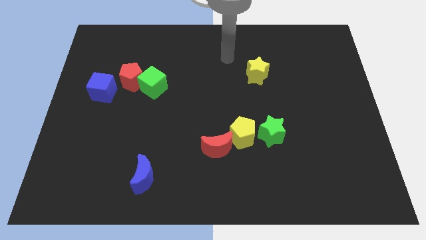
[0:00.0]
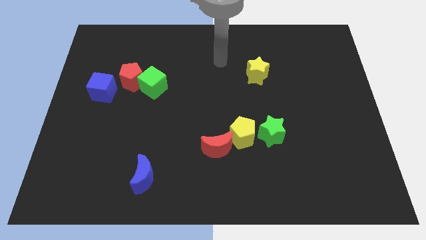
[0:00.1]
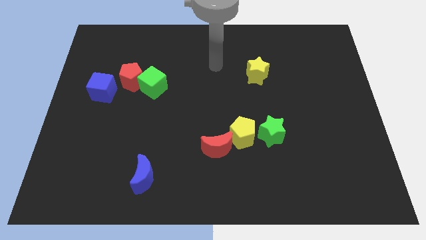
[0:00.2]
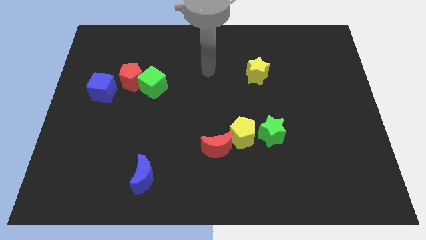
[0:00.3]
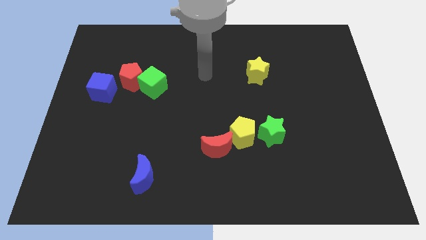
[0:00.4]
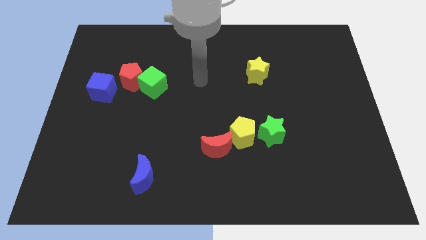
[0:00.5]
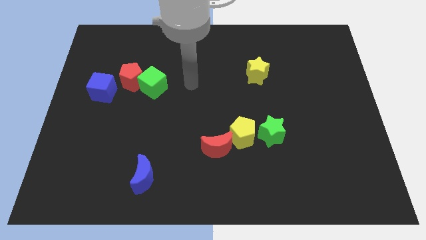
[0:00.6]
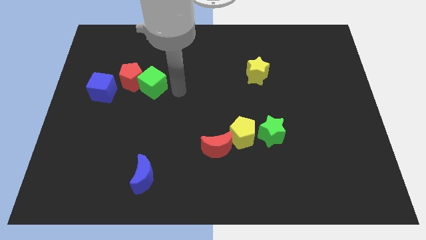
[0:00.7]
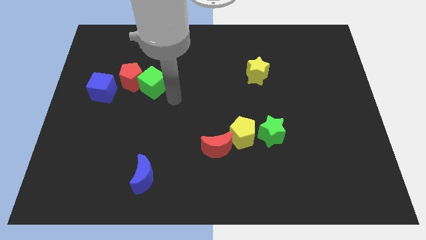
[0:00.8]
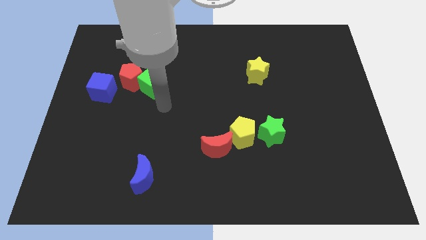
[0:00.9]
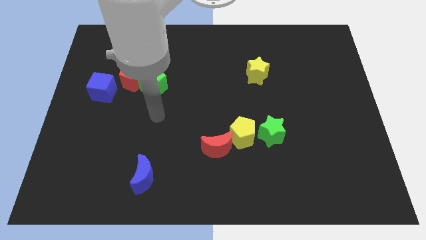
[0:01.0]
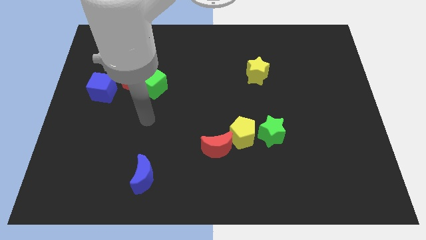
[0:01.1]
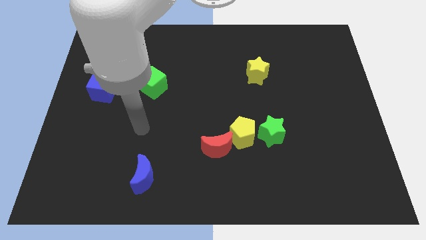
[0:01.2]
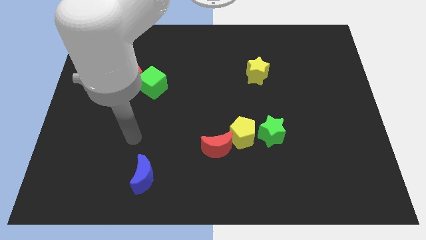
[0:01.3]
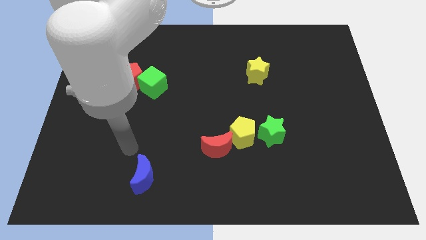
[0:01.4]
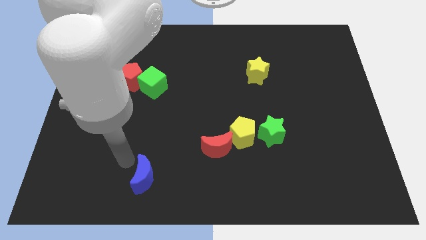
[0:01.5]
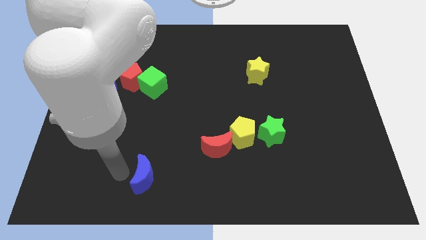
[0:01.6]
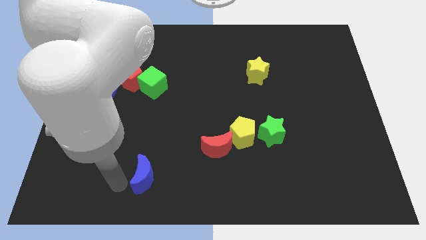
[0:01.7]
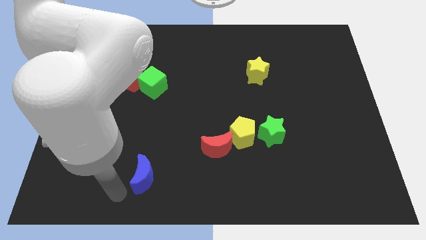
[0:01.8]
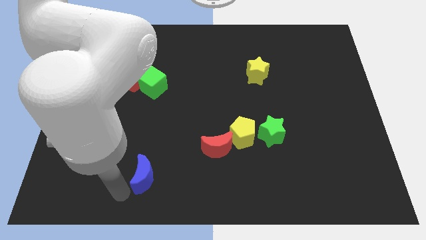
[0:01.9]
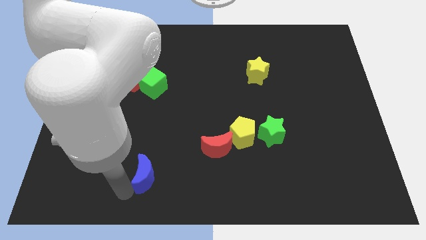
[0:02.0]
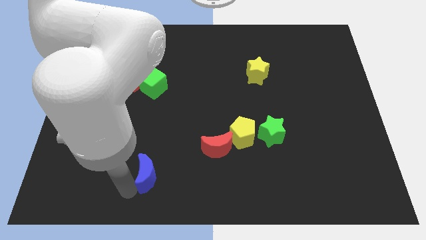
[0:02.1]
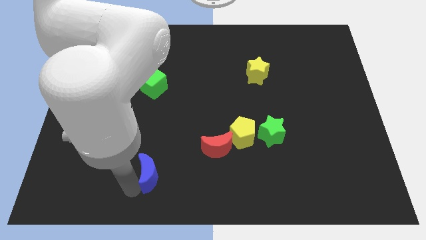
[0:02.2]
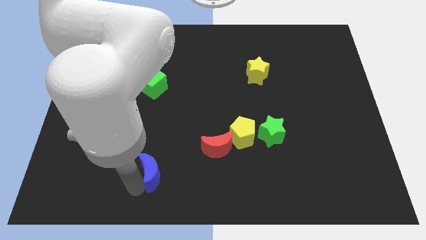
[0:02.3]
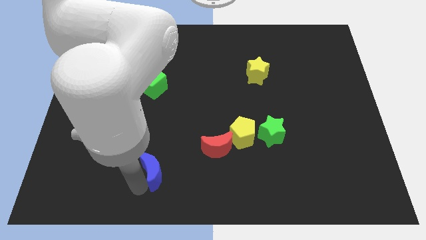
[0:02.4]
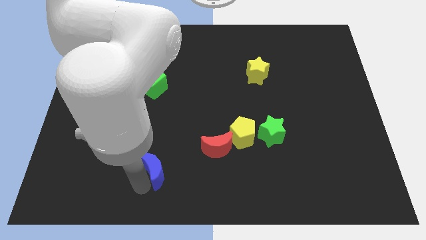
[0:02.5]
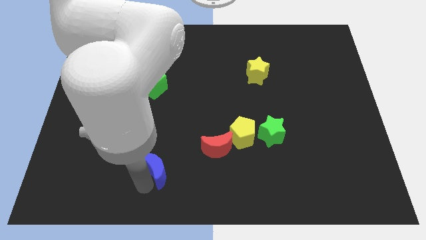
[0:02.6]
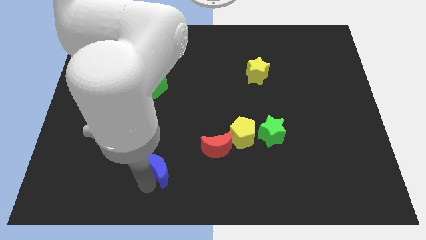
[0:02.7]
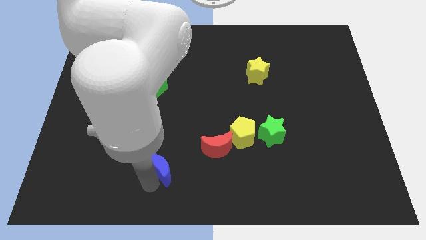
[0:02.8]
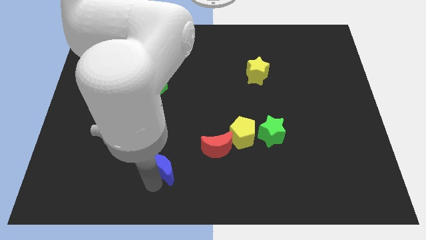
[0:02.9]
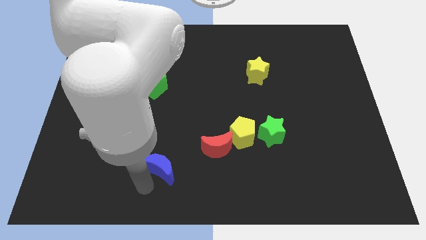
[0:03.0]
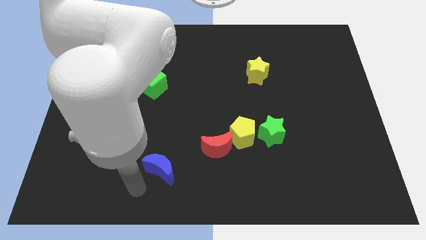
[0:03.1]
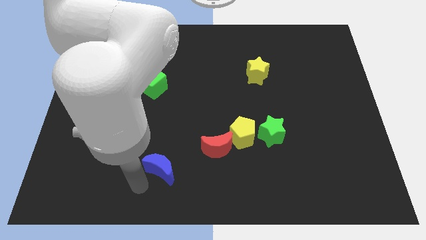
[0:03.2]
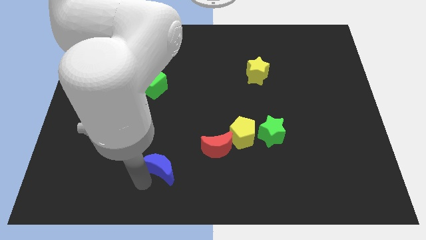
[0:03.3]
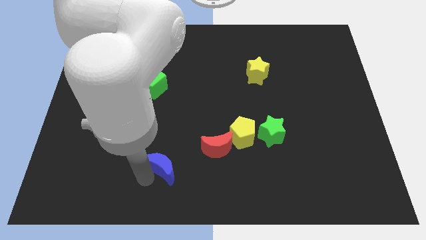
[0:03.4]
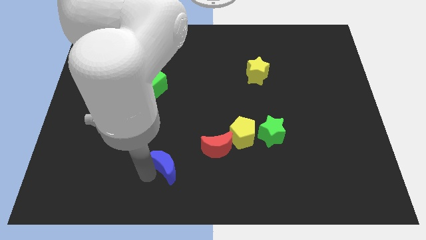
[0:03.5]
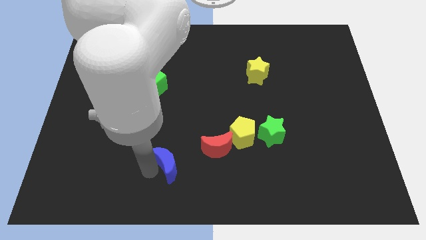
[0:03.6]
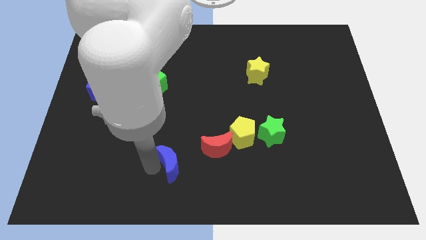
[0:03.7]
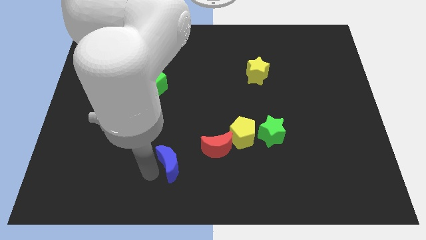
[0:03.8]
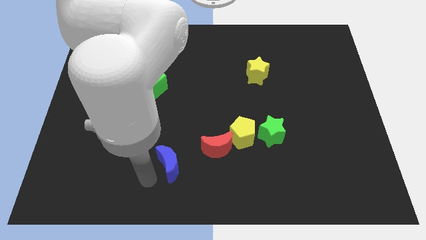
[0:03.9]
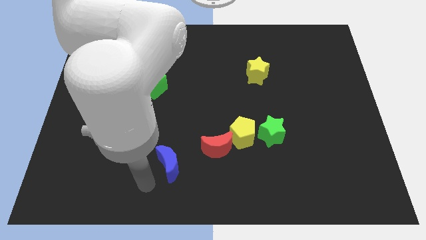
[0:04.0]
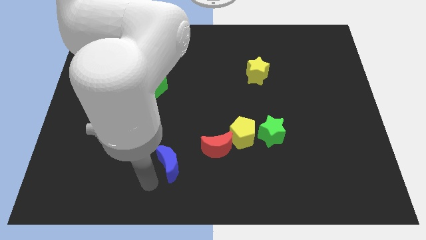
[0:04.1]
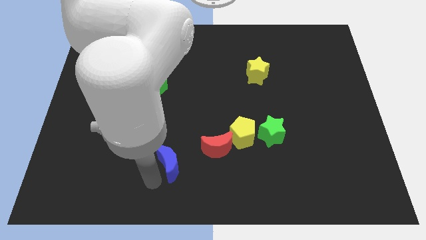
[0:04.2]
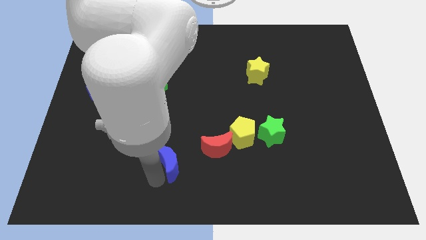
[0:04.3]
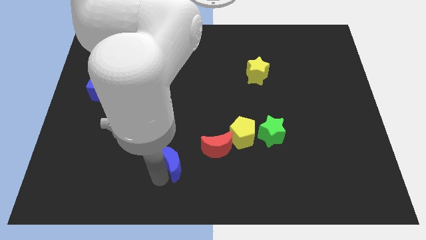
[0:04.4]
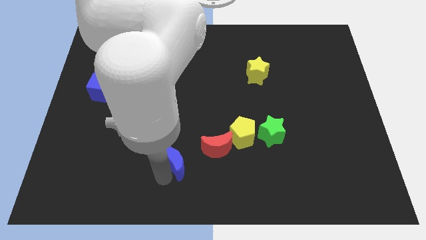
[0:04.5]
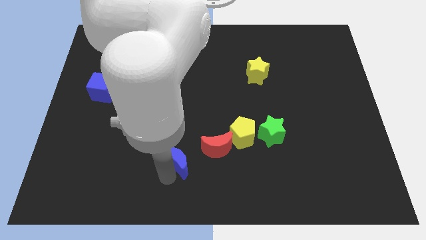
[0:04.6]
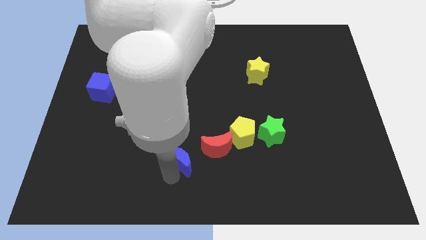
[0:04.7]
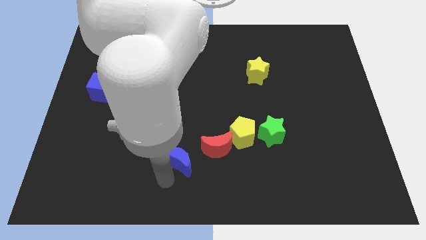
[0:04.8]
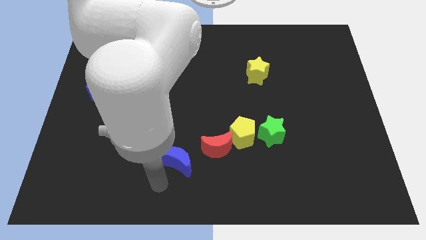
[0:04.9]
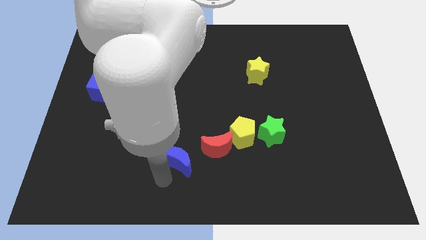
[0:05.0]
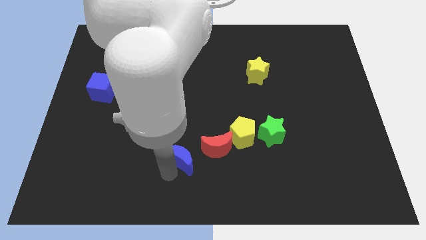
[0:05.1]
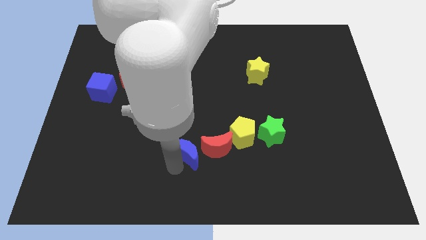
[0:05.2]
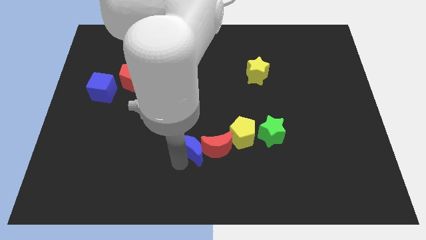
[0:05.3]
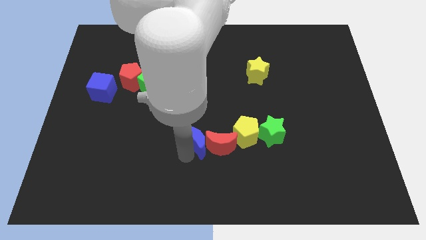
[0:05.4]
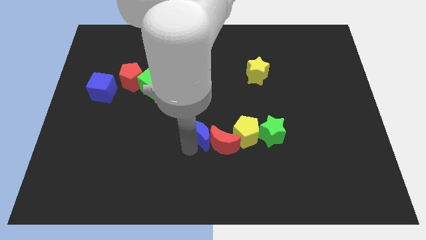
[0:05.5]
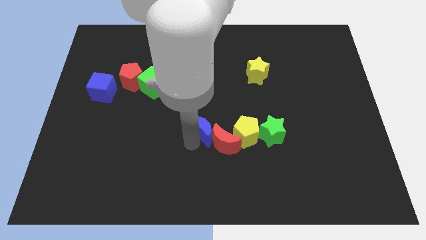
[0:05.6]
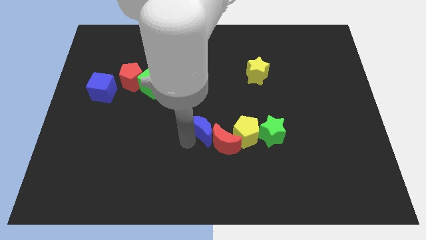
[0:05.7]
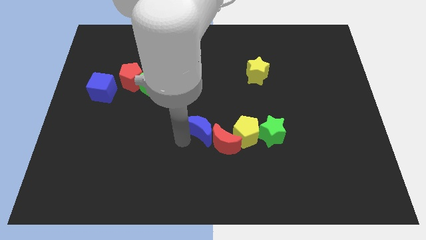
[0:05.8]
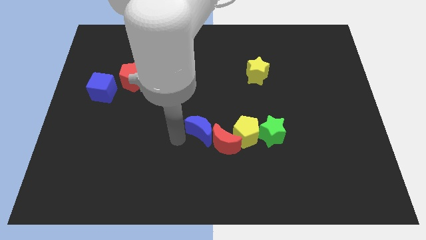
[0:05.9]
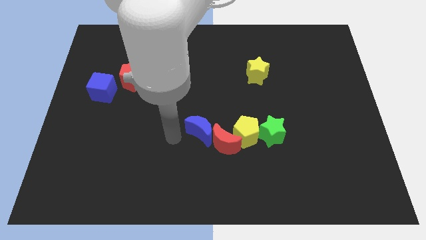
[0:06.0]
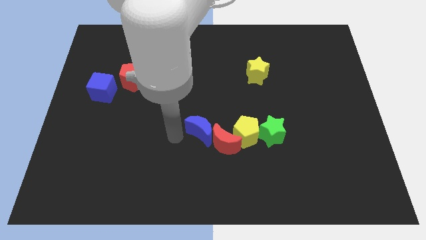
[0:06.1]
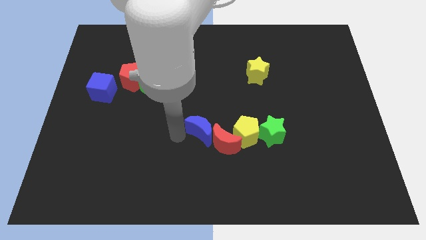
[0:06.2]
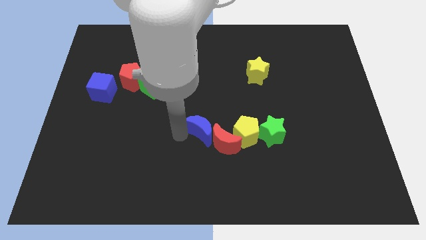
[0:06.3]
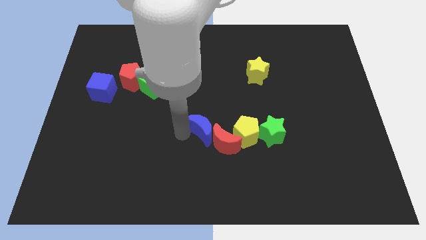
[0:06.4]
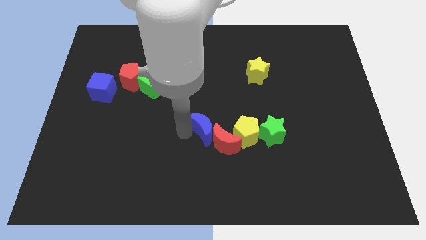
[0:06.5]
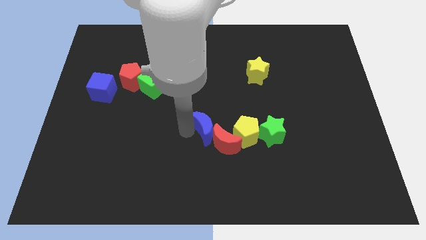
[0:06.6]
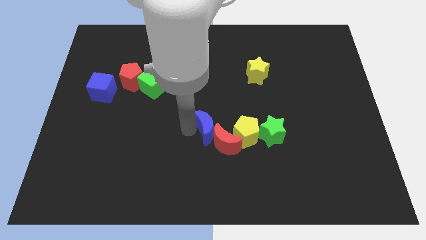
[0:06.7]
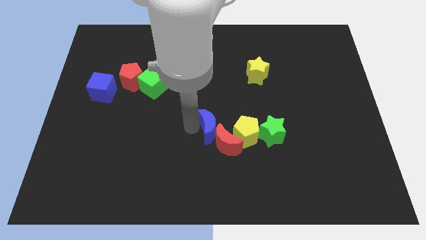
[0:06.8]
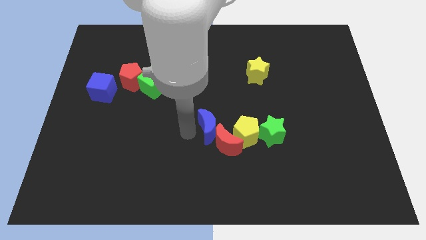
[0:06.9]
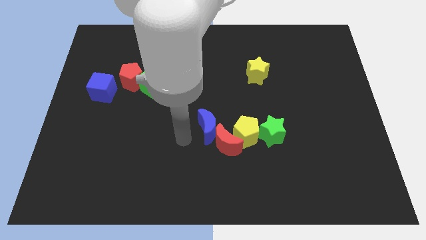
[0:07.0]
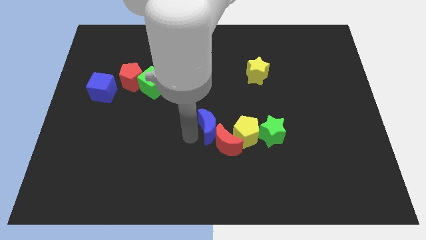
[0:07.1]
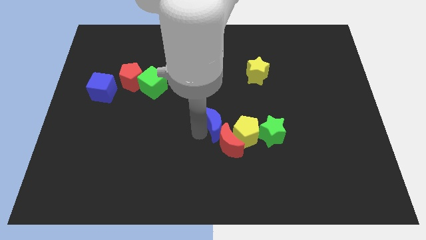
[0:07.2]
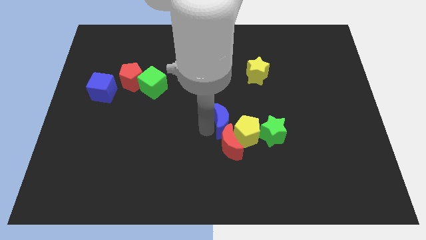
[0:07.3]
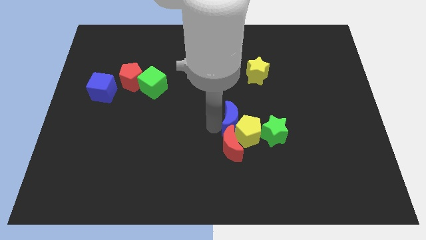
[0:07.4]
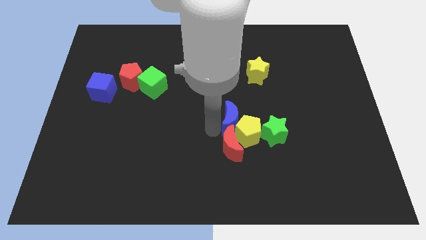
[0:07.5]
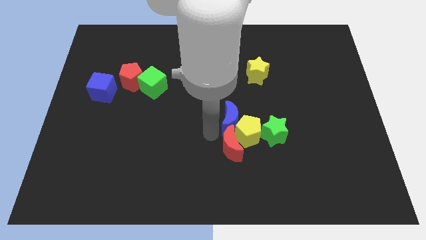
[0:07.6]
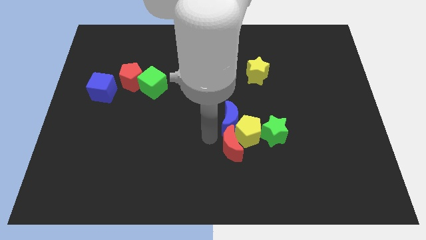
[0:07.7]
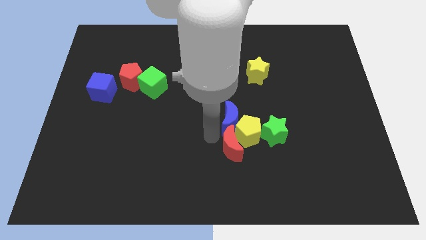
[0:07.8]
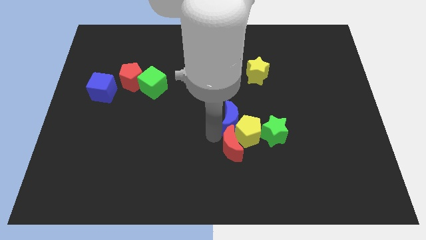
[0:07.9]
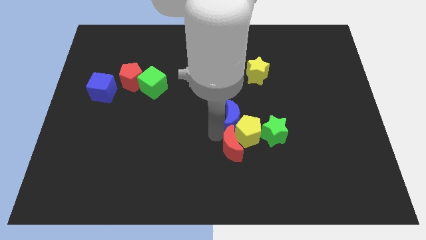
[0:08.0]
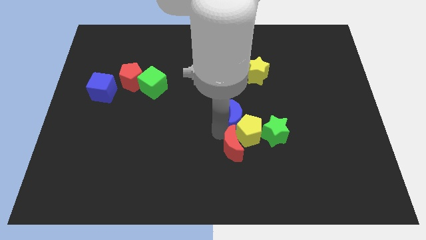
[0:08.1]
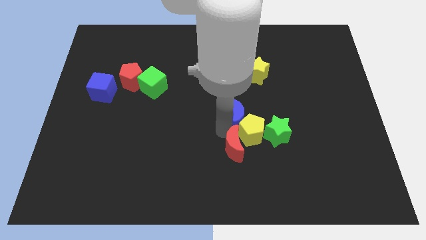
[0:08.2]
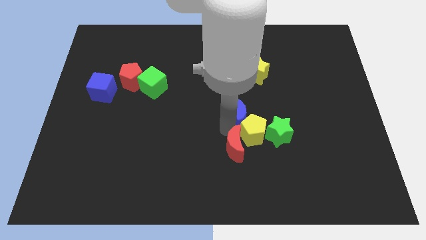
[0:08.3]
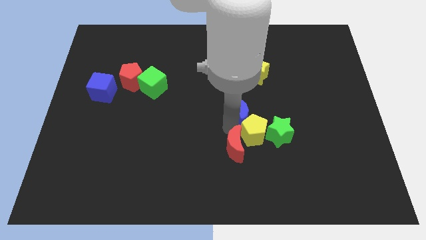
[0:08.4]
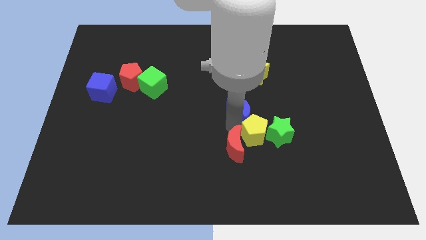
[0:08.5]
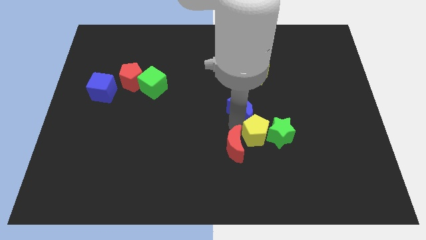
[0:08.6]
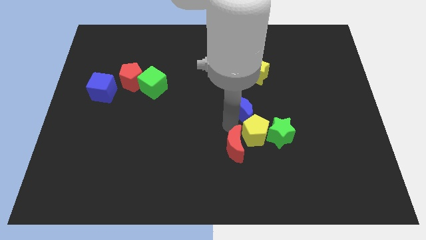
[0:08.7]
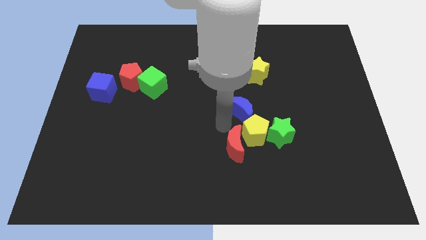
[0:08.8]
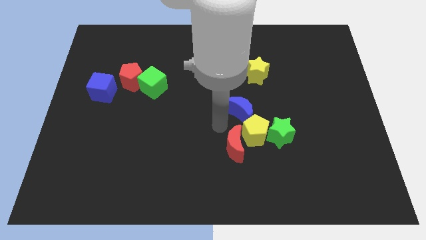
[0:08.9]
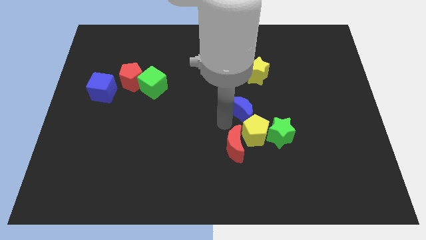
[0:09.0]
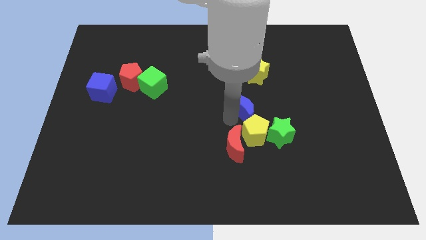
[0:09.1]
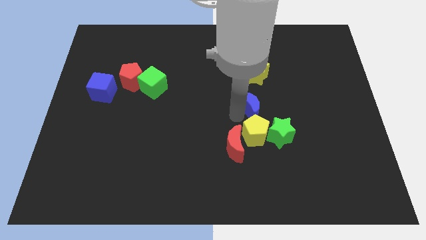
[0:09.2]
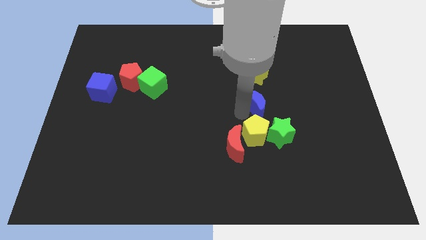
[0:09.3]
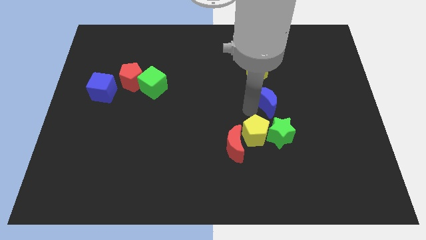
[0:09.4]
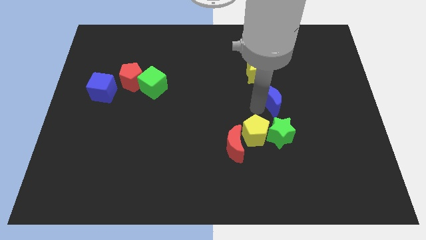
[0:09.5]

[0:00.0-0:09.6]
push the blue moon to the bottom right side of the yellow star
